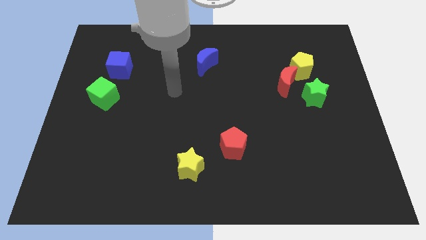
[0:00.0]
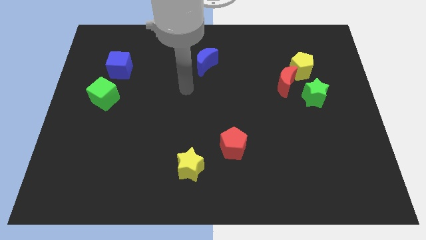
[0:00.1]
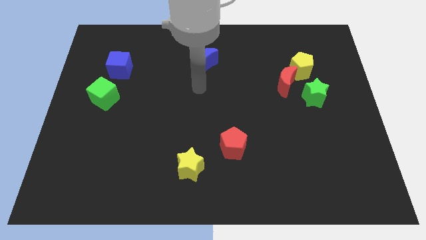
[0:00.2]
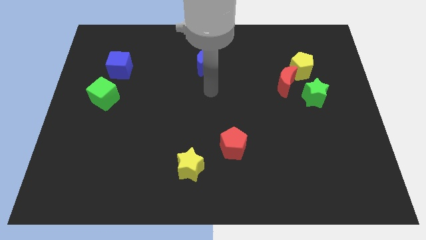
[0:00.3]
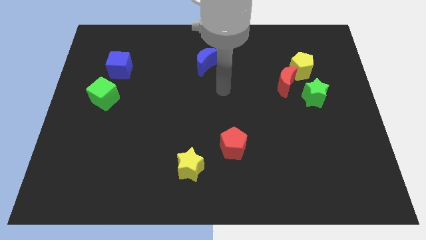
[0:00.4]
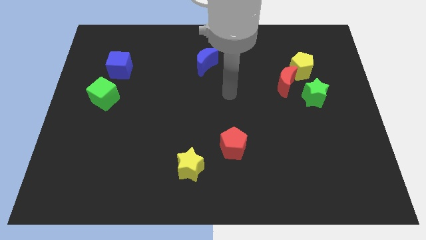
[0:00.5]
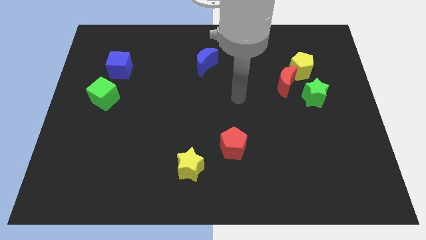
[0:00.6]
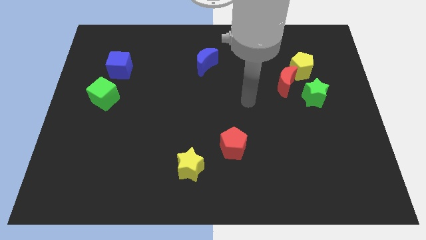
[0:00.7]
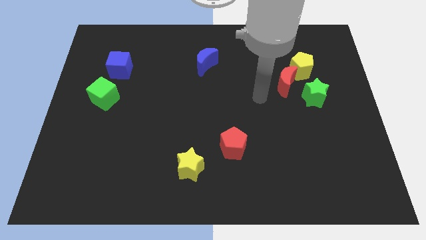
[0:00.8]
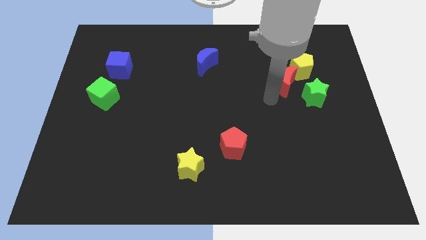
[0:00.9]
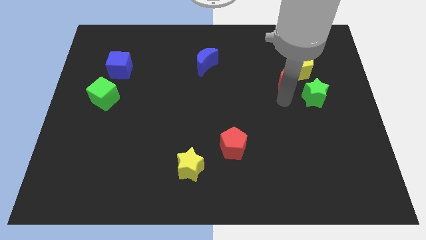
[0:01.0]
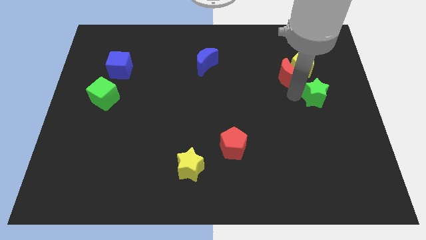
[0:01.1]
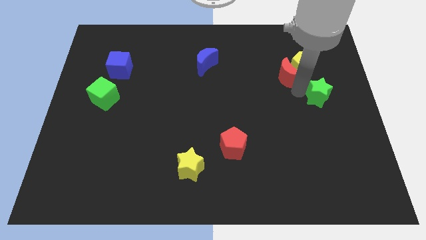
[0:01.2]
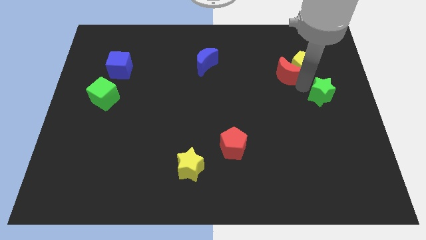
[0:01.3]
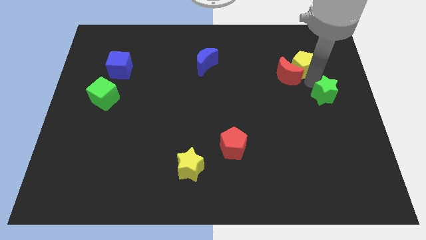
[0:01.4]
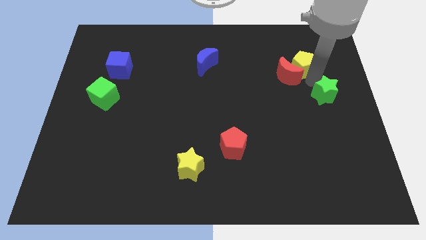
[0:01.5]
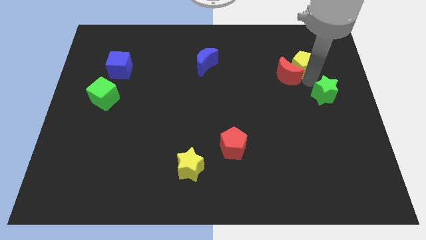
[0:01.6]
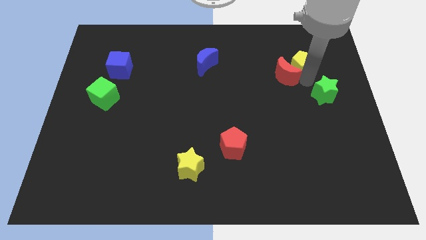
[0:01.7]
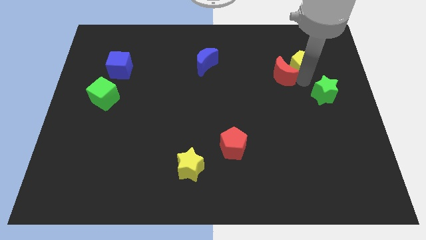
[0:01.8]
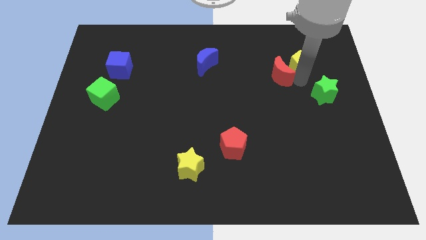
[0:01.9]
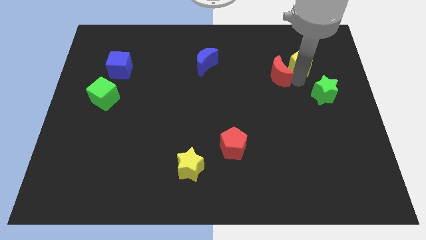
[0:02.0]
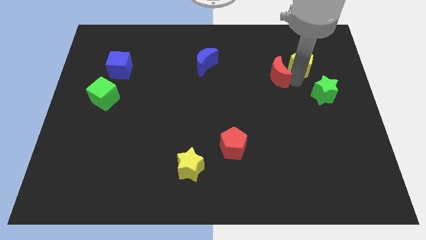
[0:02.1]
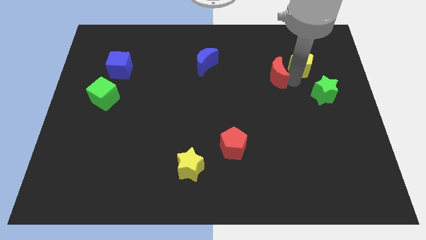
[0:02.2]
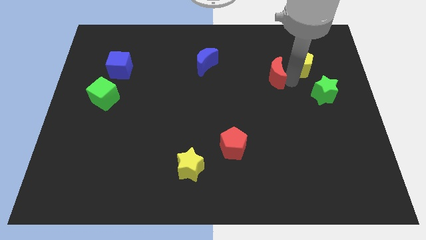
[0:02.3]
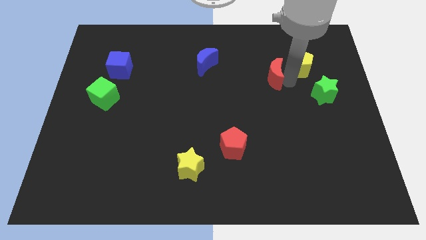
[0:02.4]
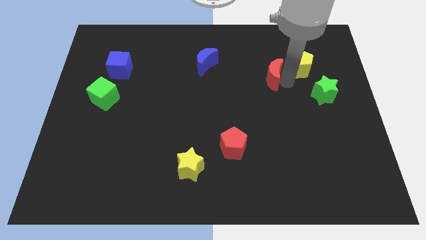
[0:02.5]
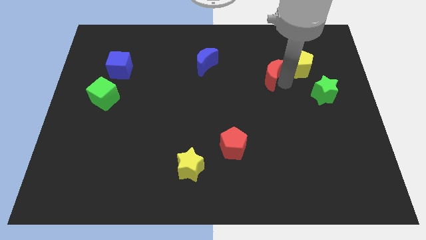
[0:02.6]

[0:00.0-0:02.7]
move the red moon away from the yellow pentagon and green star

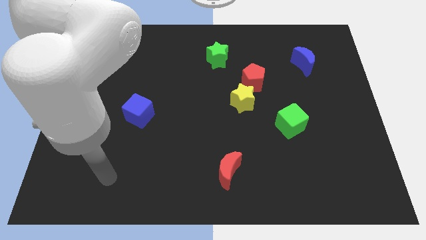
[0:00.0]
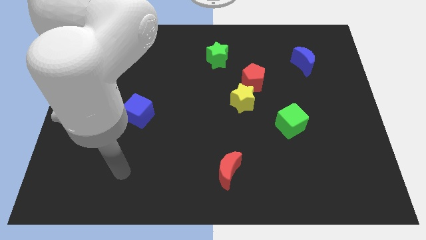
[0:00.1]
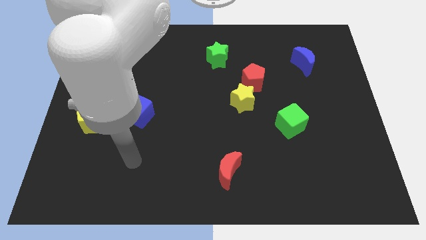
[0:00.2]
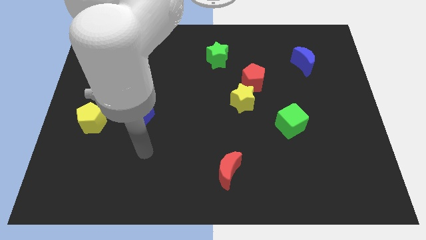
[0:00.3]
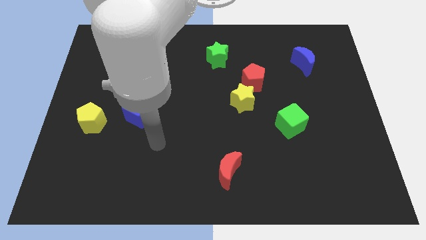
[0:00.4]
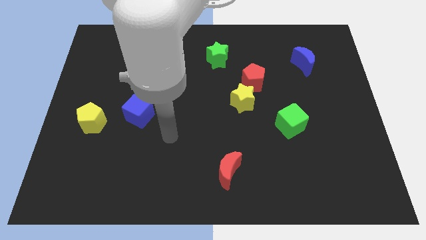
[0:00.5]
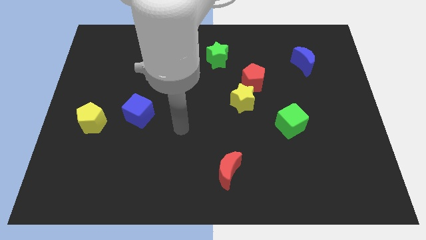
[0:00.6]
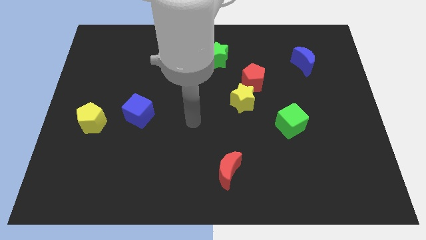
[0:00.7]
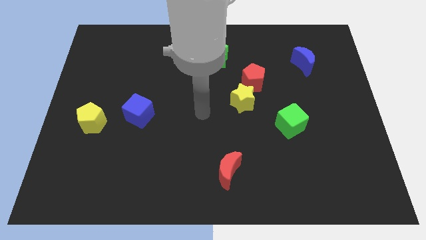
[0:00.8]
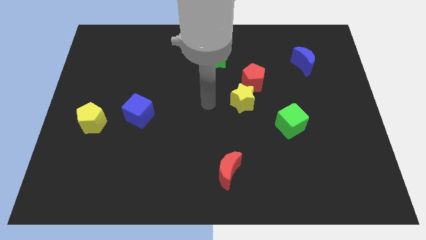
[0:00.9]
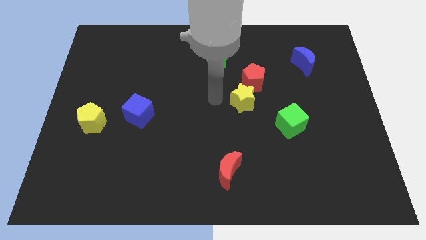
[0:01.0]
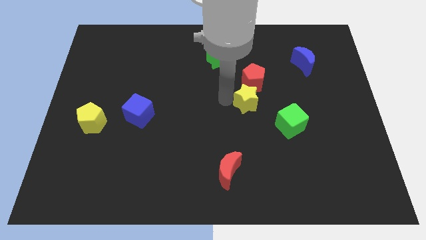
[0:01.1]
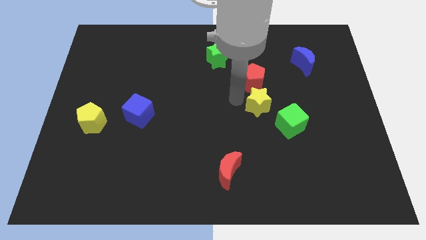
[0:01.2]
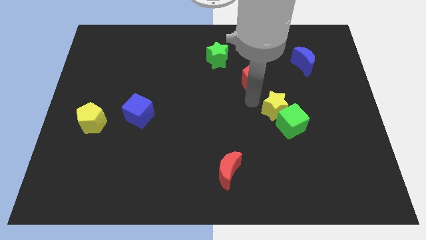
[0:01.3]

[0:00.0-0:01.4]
pull the red pentagon apart from the yellow star

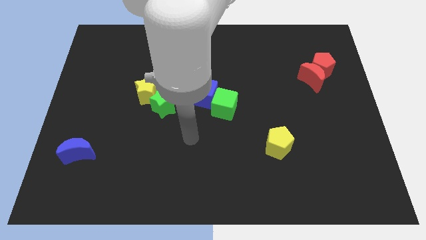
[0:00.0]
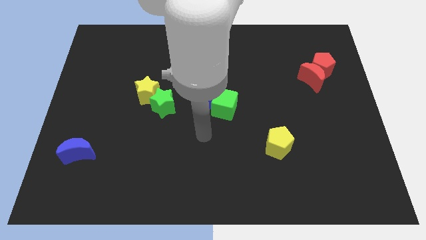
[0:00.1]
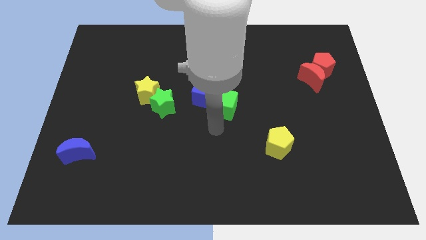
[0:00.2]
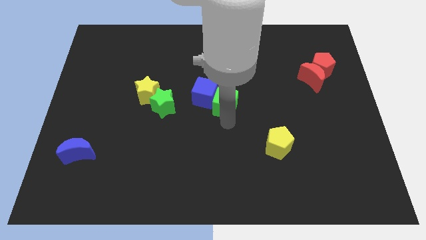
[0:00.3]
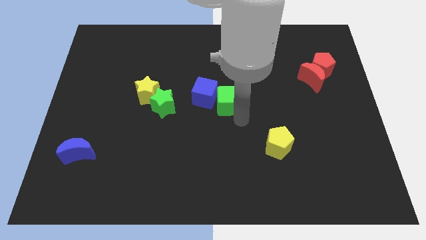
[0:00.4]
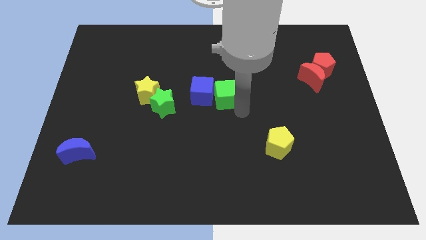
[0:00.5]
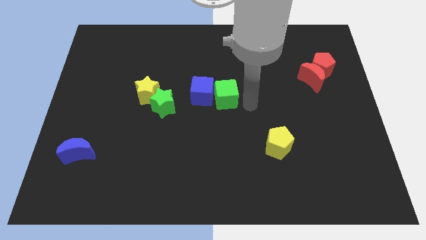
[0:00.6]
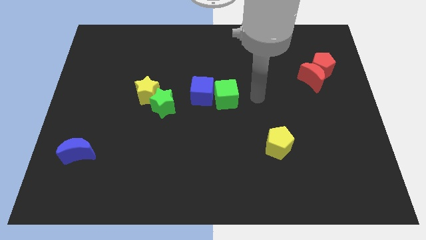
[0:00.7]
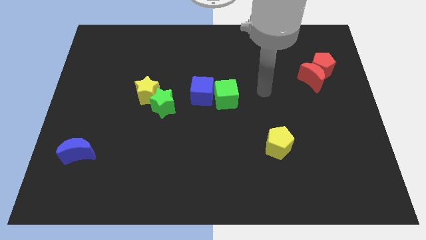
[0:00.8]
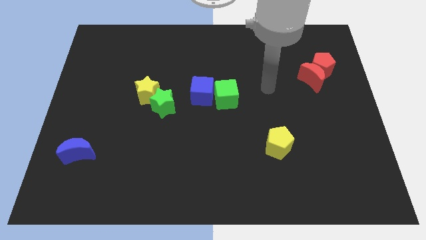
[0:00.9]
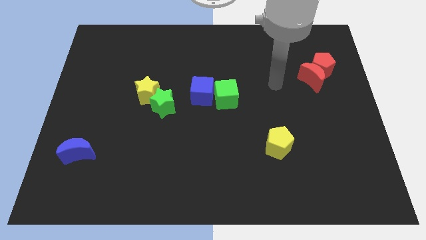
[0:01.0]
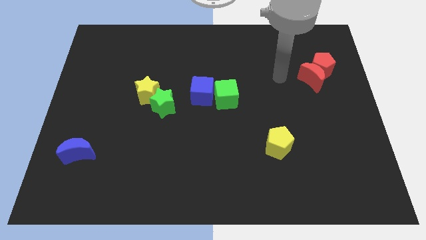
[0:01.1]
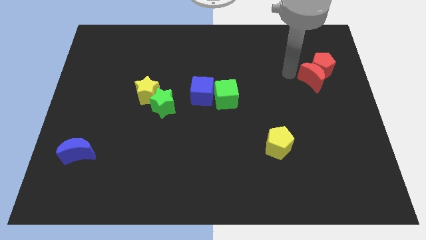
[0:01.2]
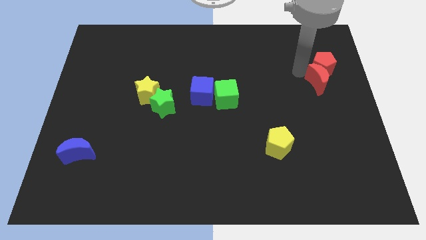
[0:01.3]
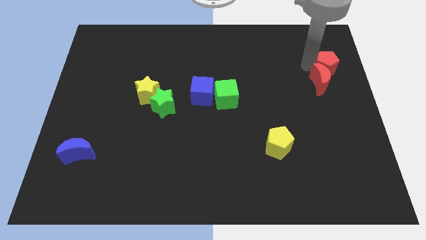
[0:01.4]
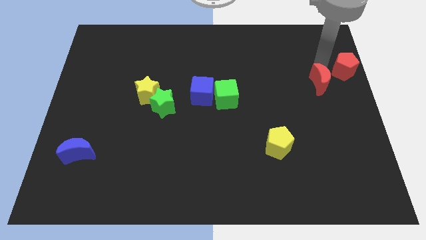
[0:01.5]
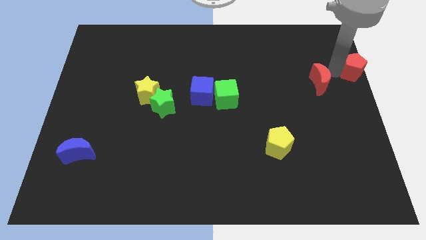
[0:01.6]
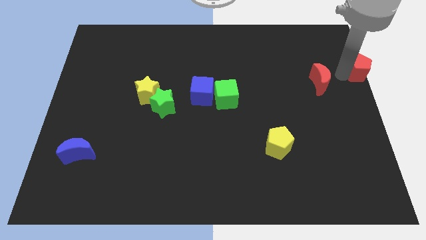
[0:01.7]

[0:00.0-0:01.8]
pull the red moon apart from the red pentagon

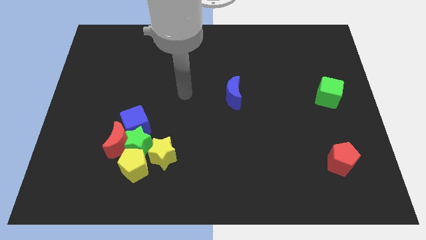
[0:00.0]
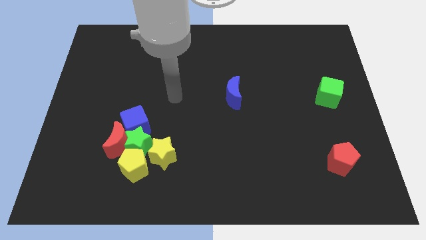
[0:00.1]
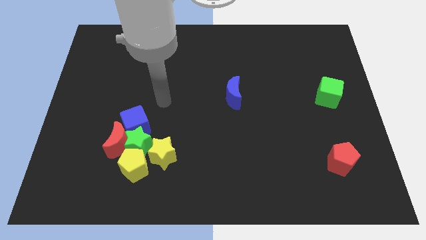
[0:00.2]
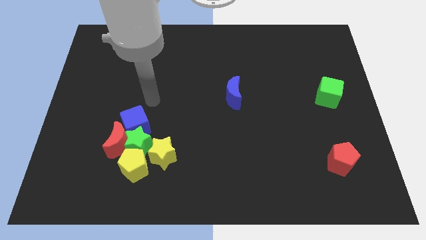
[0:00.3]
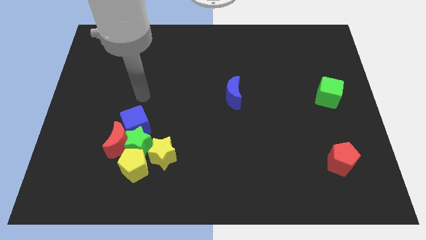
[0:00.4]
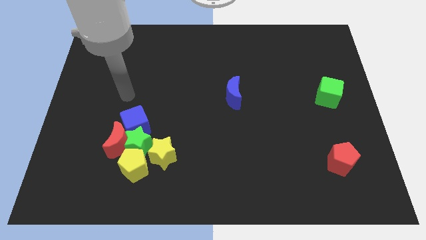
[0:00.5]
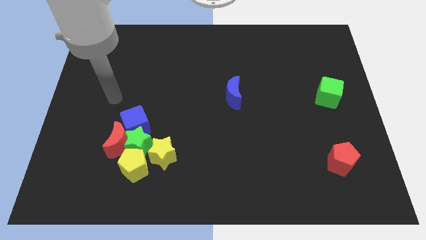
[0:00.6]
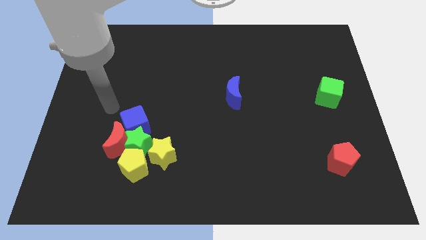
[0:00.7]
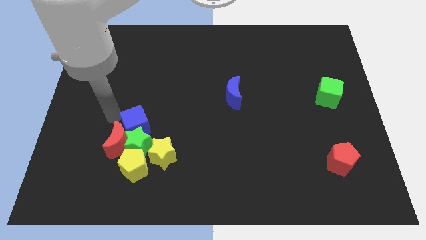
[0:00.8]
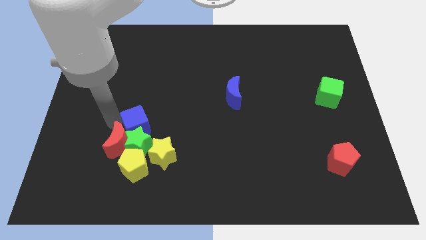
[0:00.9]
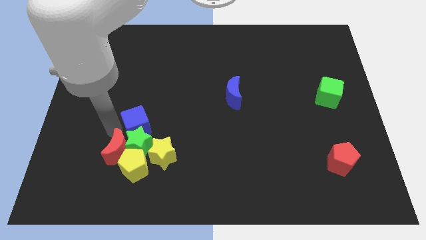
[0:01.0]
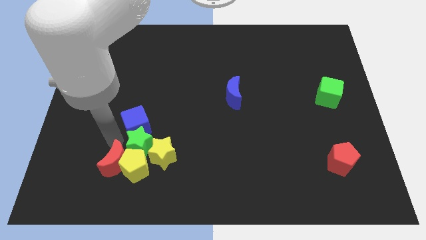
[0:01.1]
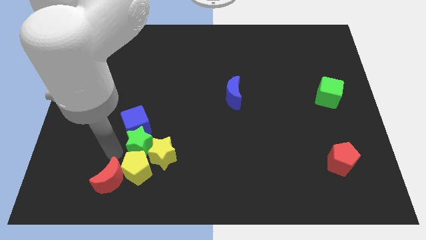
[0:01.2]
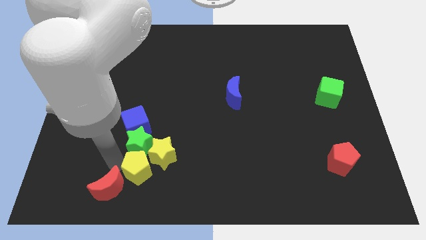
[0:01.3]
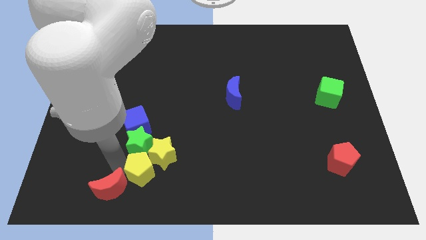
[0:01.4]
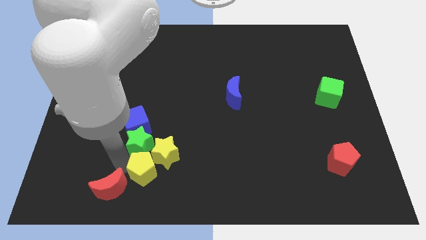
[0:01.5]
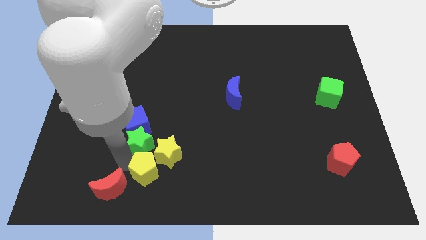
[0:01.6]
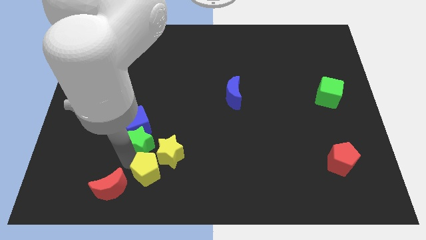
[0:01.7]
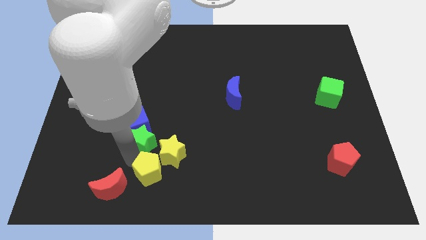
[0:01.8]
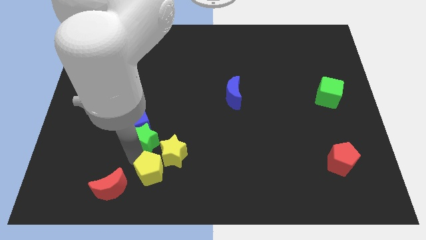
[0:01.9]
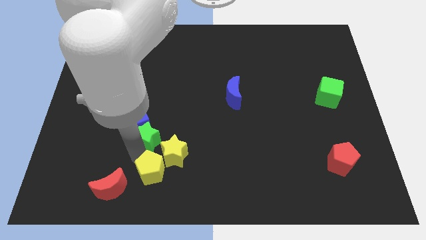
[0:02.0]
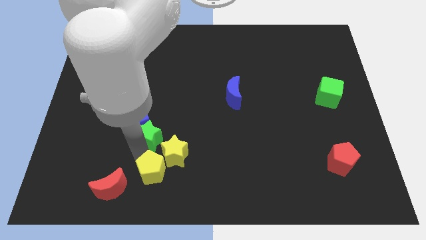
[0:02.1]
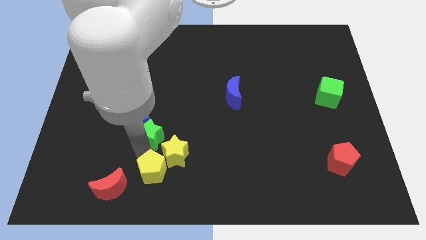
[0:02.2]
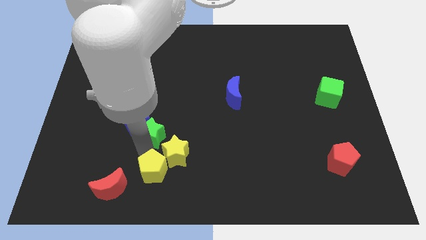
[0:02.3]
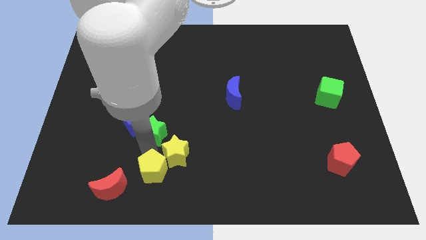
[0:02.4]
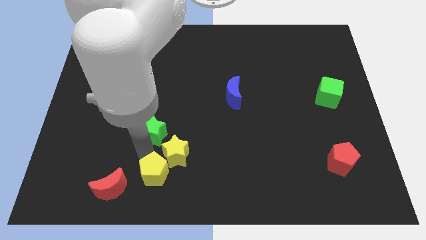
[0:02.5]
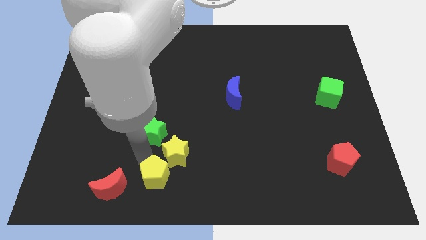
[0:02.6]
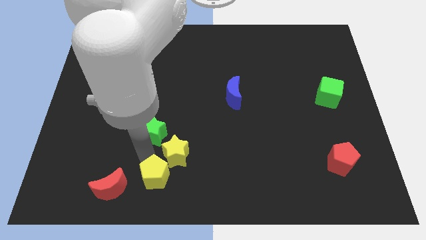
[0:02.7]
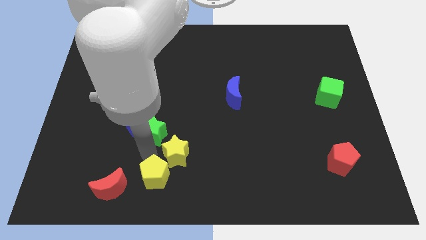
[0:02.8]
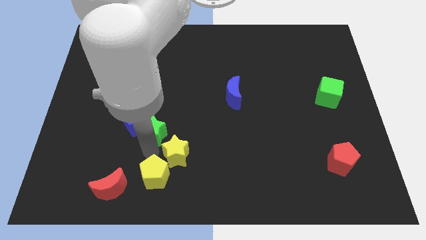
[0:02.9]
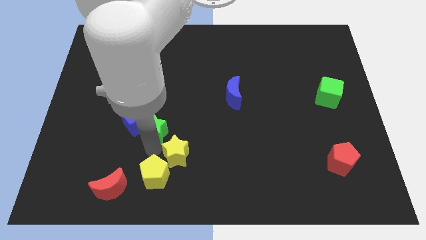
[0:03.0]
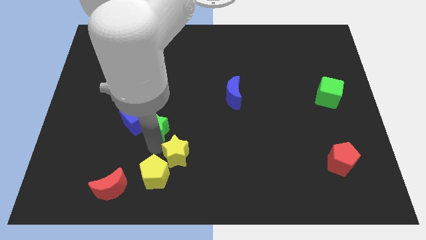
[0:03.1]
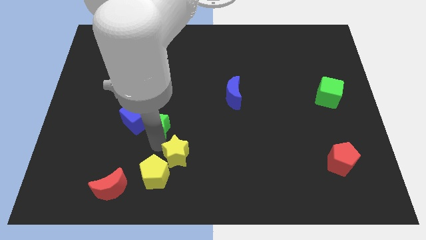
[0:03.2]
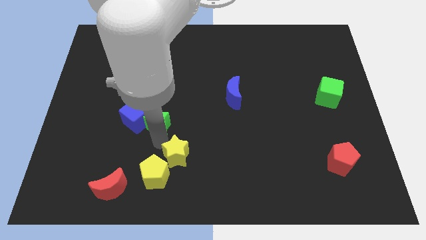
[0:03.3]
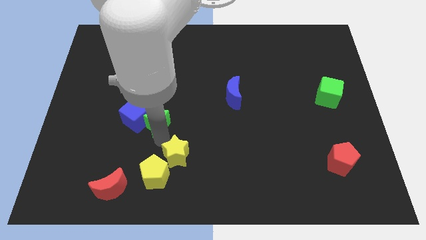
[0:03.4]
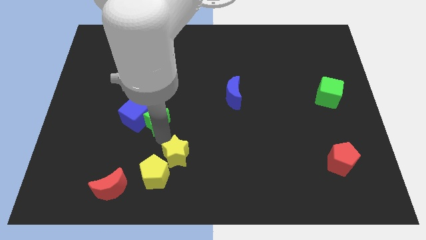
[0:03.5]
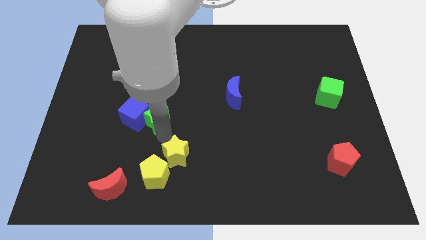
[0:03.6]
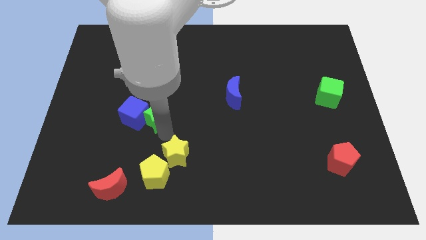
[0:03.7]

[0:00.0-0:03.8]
move the green star away from the clump
